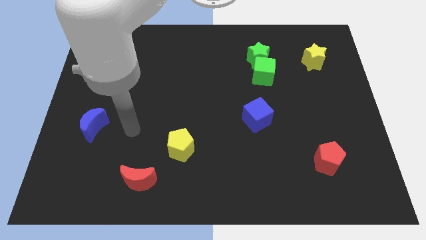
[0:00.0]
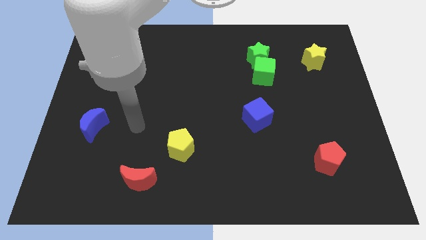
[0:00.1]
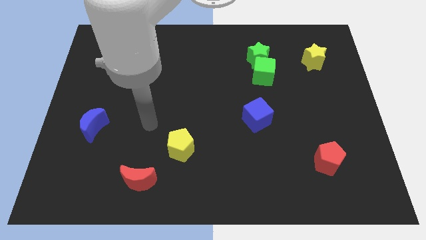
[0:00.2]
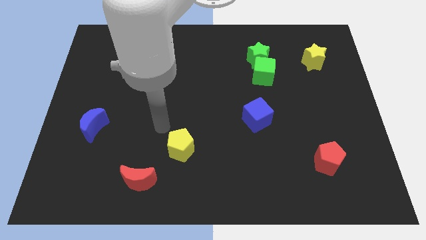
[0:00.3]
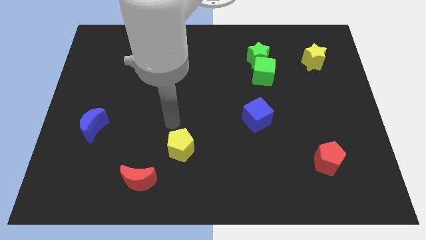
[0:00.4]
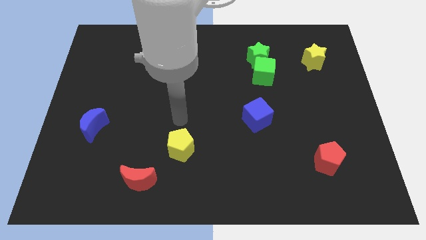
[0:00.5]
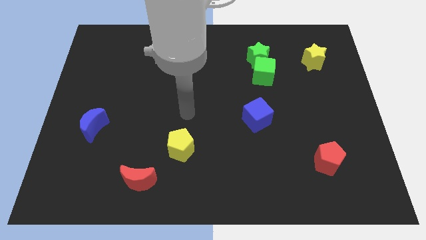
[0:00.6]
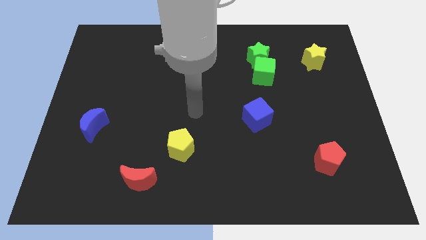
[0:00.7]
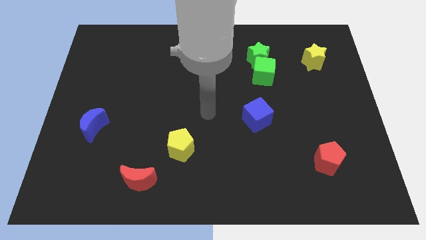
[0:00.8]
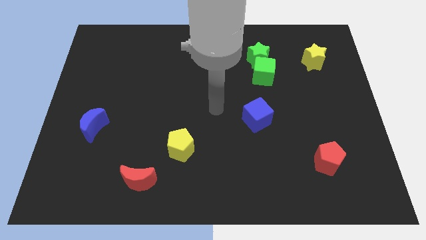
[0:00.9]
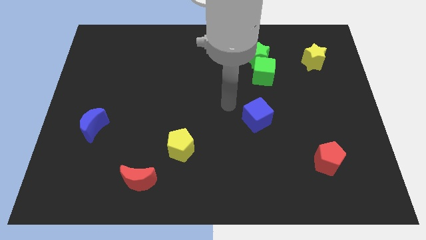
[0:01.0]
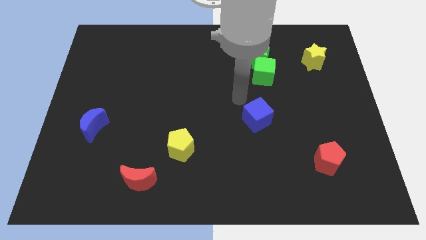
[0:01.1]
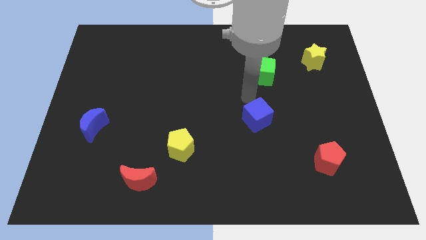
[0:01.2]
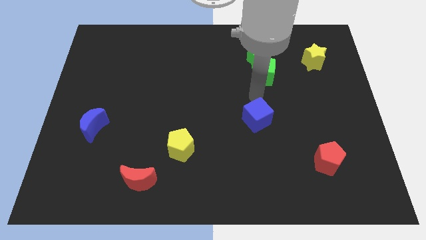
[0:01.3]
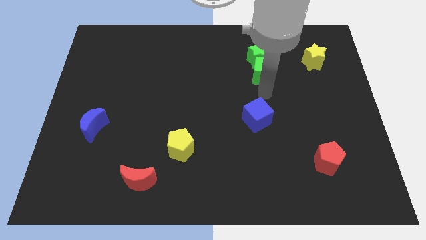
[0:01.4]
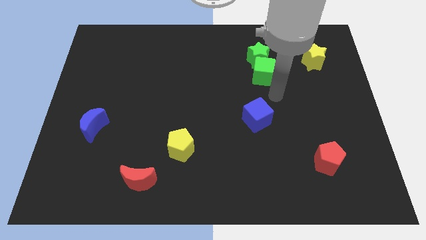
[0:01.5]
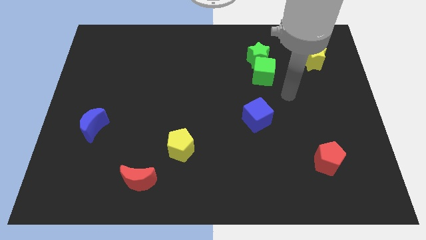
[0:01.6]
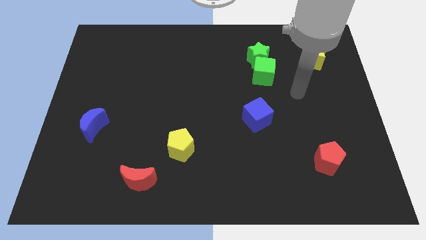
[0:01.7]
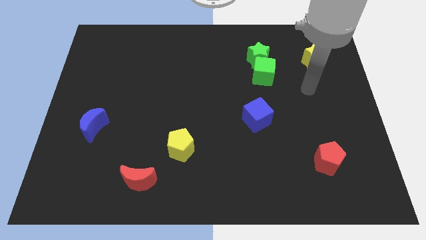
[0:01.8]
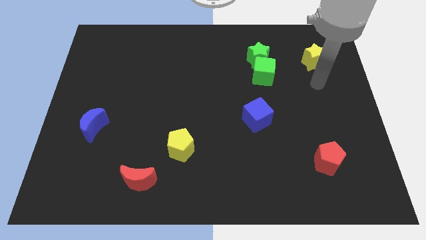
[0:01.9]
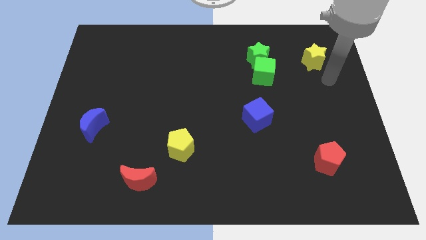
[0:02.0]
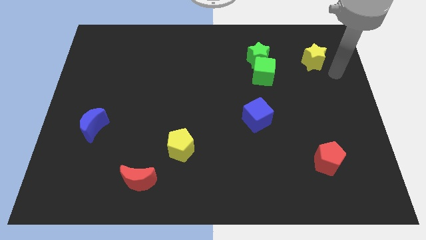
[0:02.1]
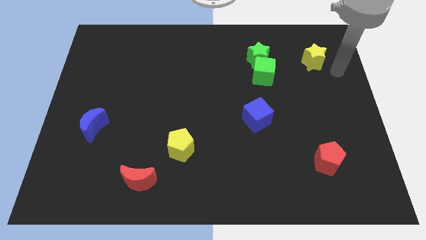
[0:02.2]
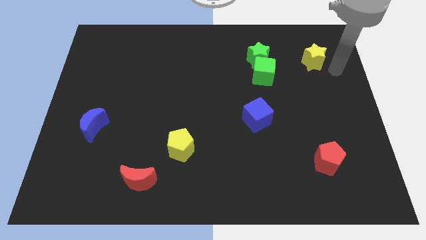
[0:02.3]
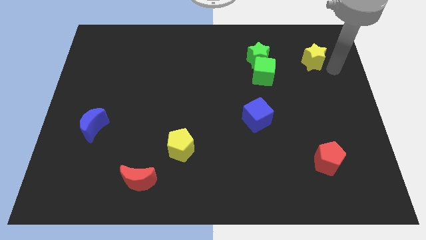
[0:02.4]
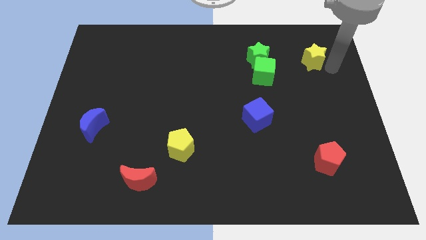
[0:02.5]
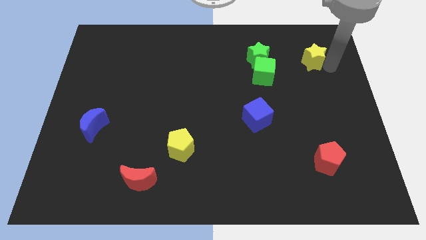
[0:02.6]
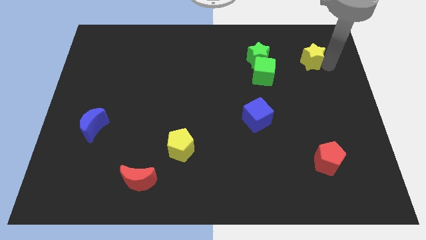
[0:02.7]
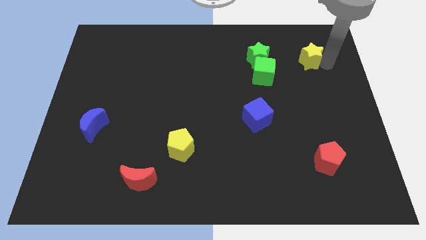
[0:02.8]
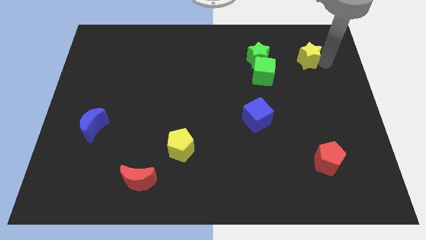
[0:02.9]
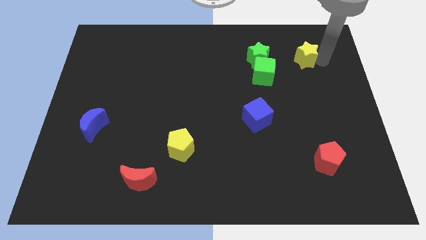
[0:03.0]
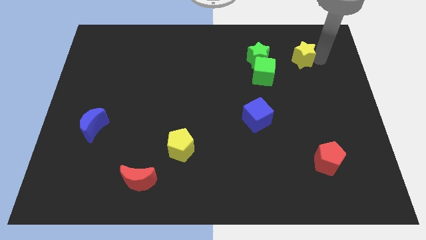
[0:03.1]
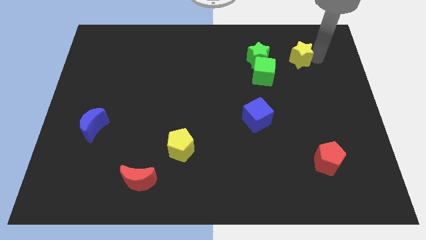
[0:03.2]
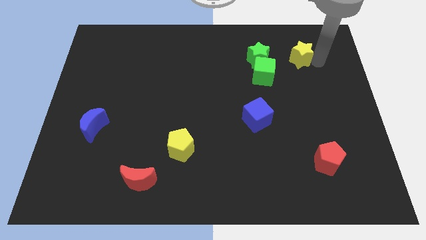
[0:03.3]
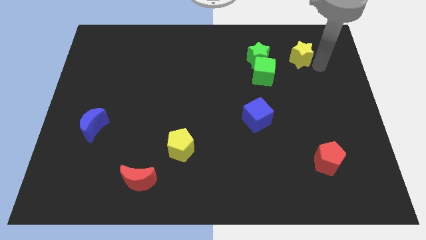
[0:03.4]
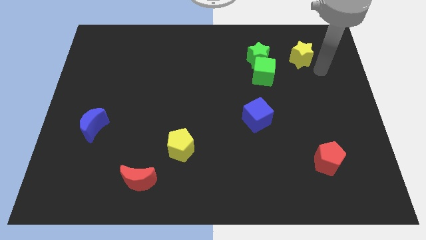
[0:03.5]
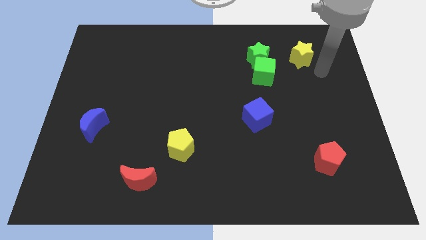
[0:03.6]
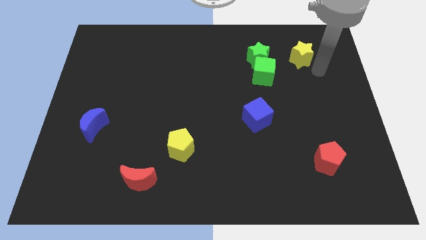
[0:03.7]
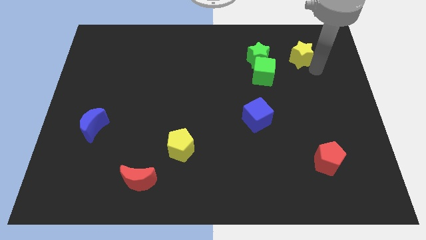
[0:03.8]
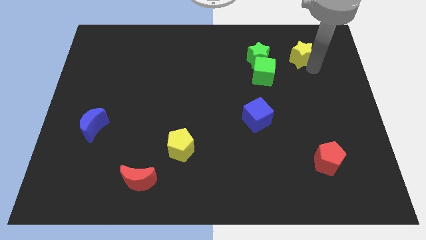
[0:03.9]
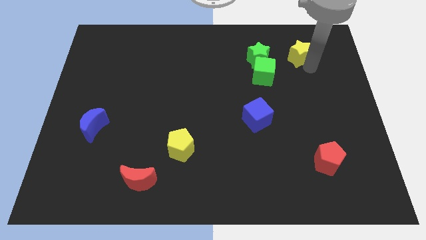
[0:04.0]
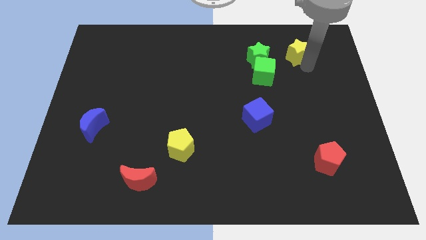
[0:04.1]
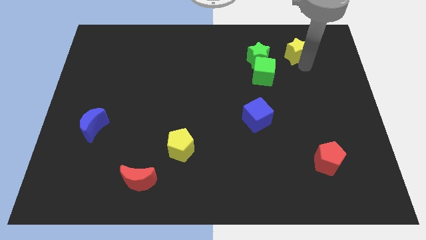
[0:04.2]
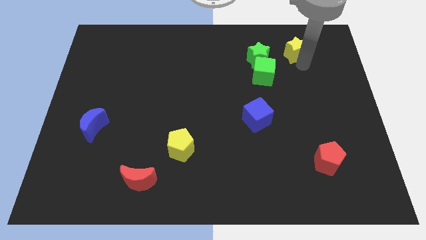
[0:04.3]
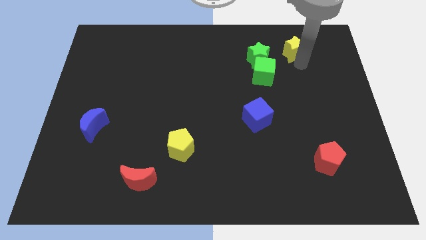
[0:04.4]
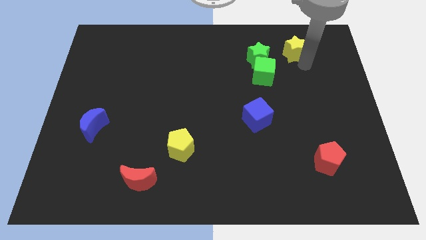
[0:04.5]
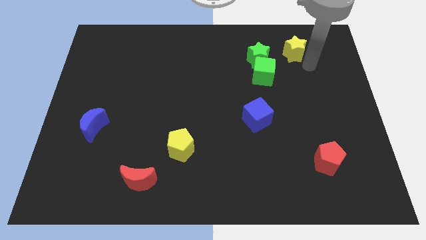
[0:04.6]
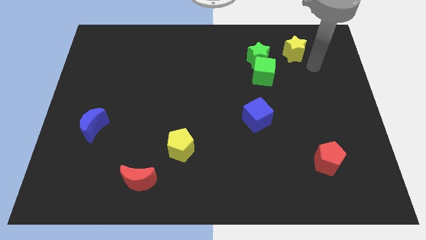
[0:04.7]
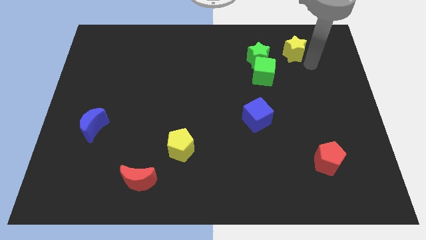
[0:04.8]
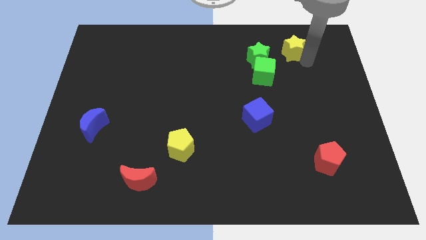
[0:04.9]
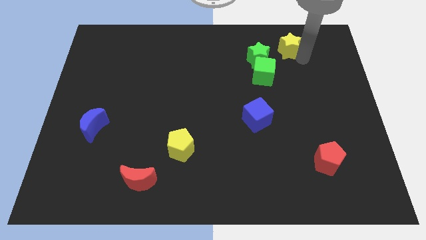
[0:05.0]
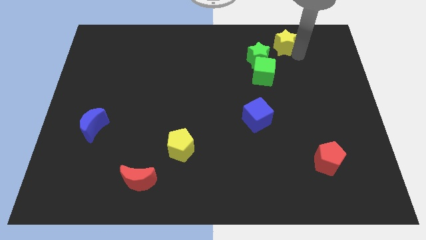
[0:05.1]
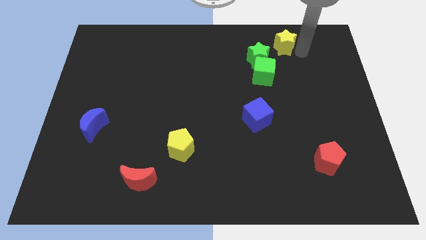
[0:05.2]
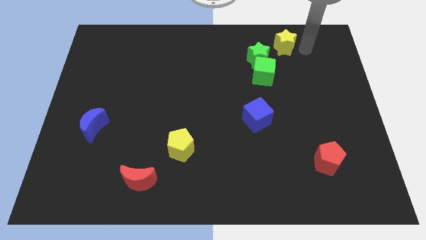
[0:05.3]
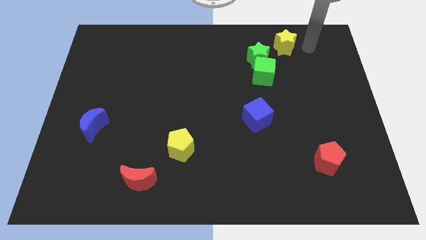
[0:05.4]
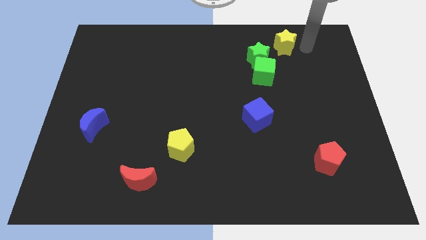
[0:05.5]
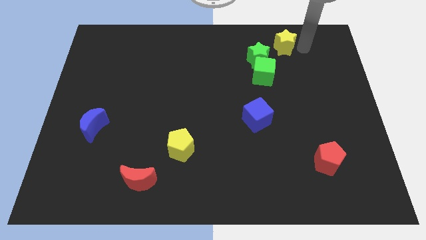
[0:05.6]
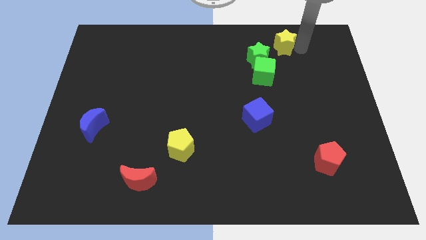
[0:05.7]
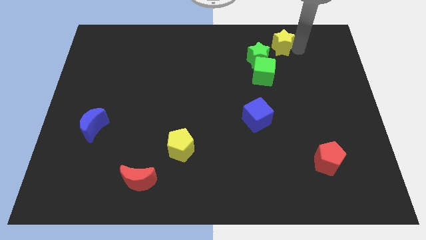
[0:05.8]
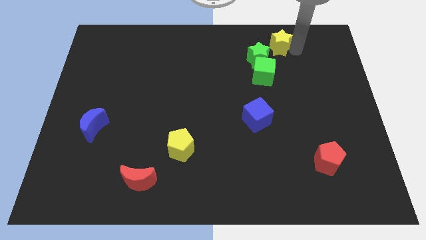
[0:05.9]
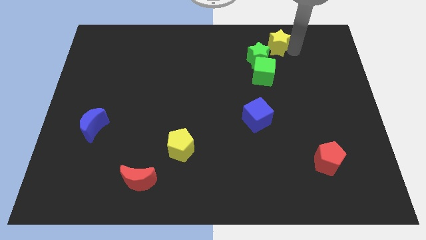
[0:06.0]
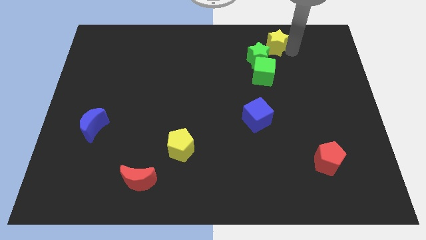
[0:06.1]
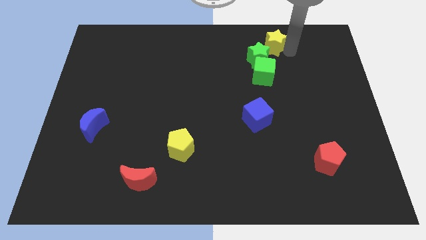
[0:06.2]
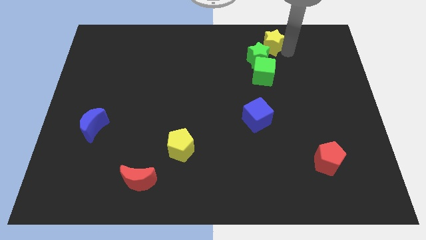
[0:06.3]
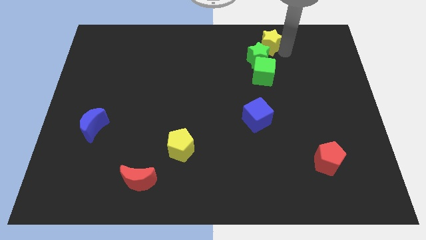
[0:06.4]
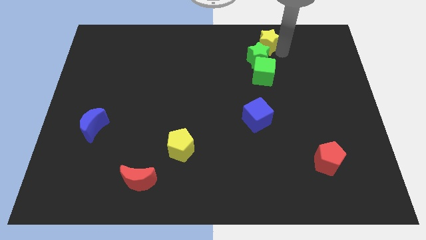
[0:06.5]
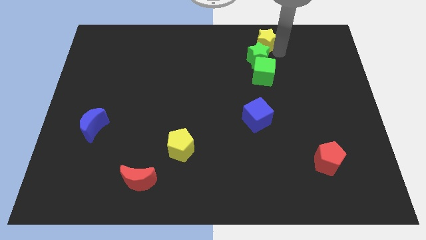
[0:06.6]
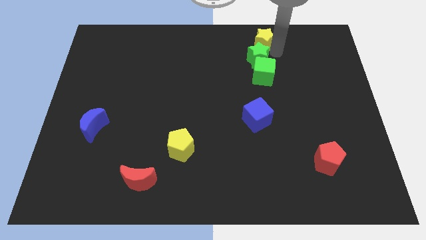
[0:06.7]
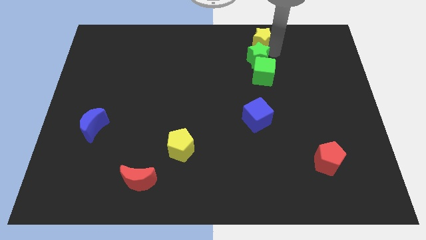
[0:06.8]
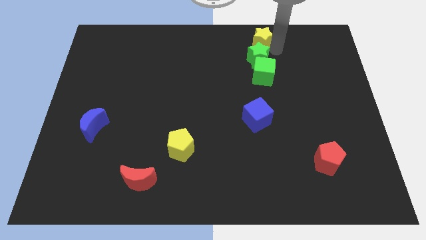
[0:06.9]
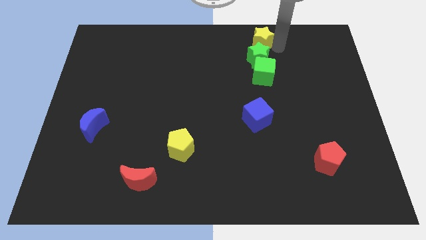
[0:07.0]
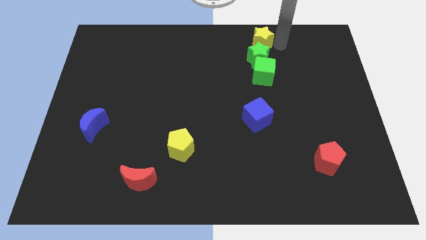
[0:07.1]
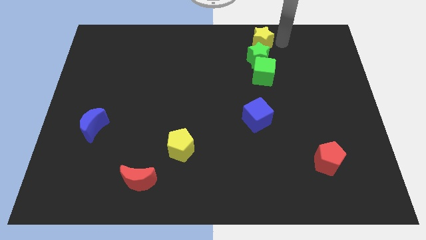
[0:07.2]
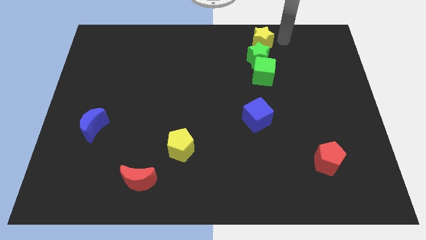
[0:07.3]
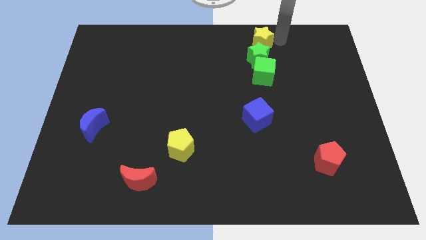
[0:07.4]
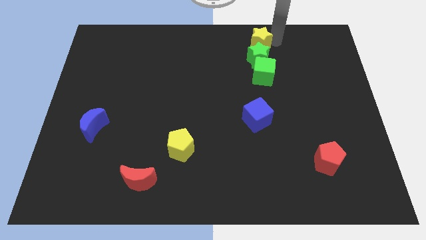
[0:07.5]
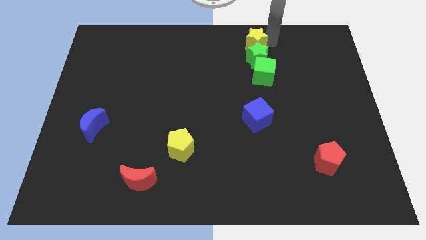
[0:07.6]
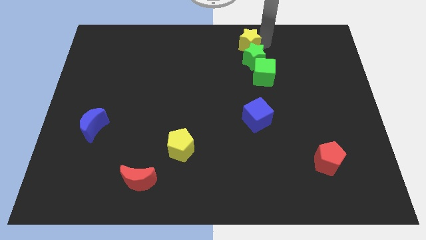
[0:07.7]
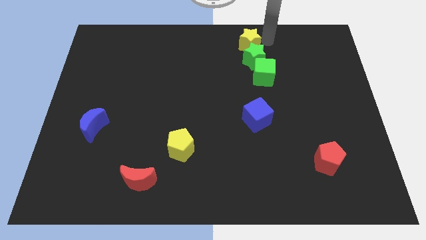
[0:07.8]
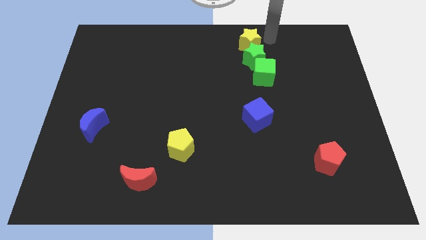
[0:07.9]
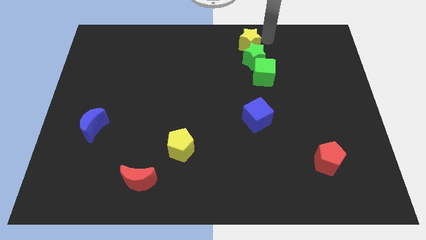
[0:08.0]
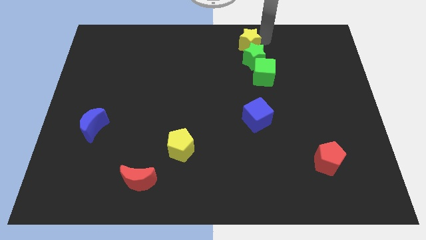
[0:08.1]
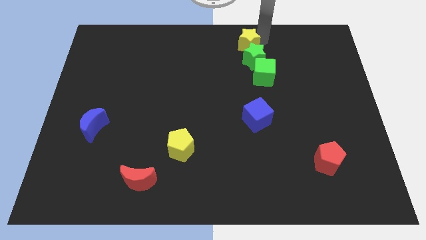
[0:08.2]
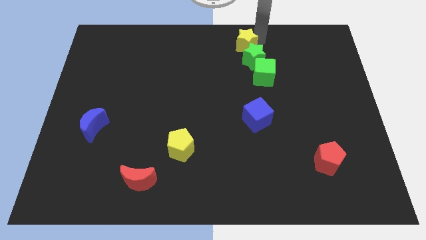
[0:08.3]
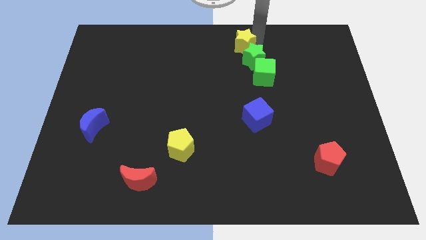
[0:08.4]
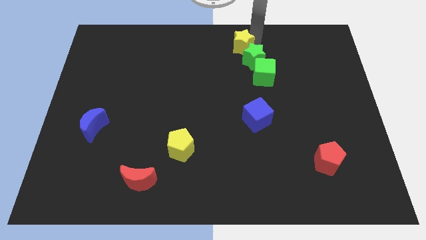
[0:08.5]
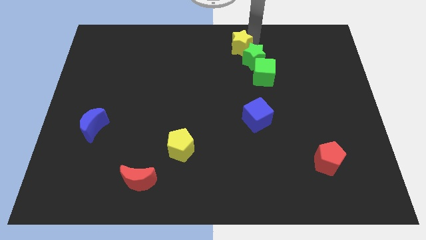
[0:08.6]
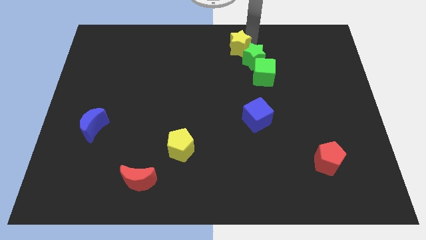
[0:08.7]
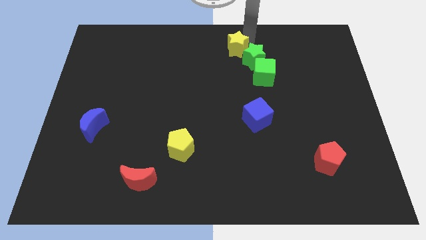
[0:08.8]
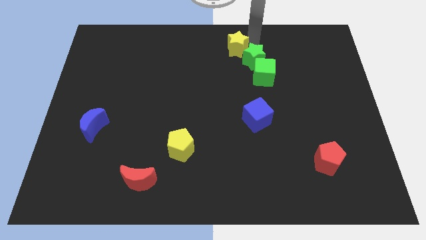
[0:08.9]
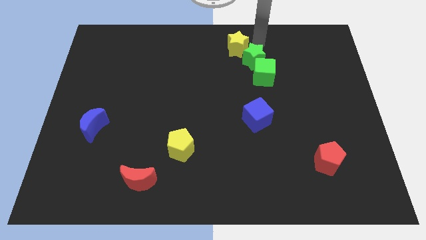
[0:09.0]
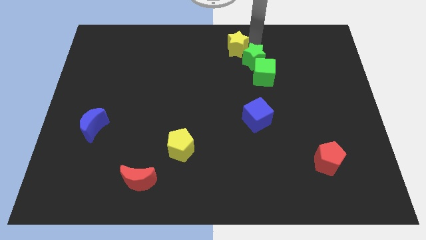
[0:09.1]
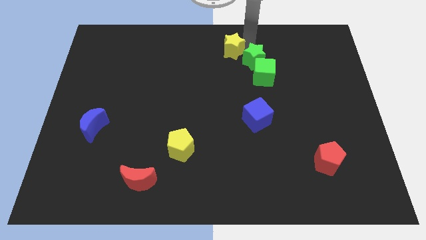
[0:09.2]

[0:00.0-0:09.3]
move the yellow star to the left
